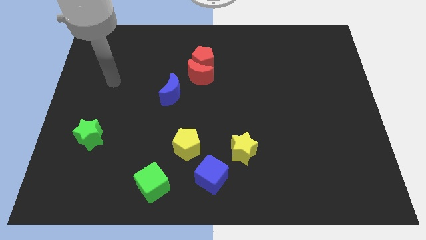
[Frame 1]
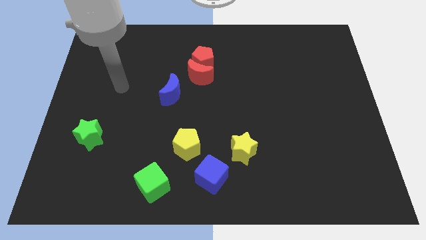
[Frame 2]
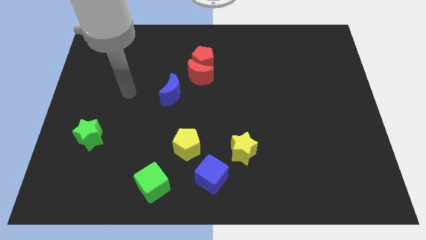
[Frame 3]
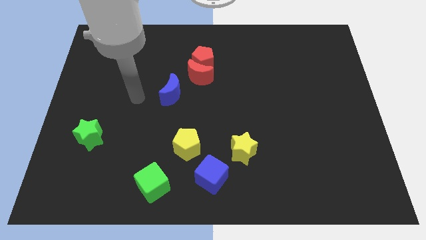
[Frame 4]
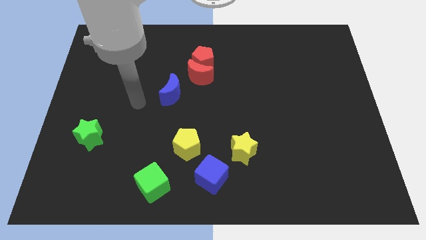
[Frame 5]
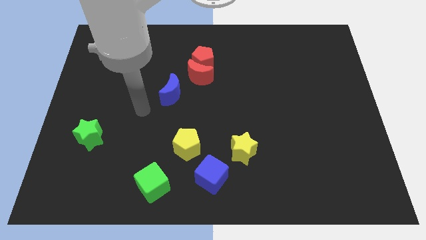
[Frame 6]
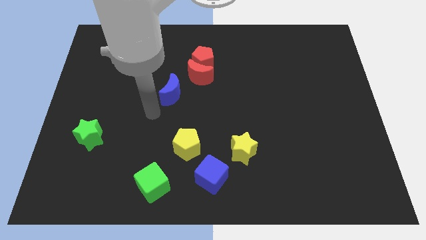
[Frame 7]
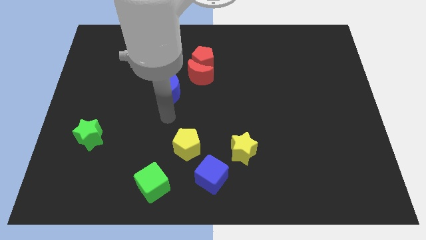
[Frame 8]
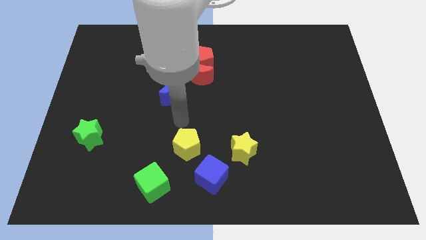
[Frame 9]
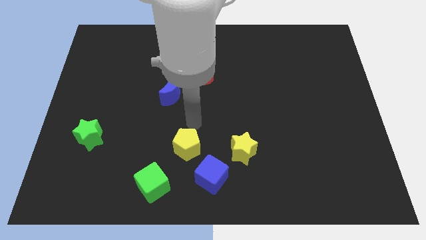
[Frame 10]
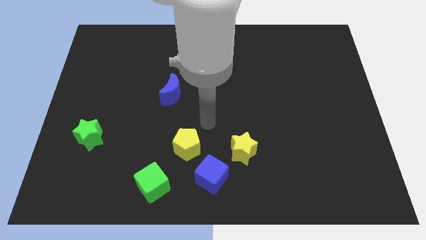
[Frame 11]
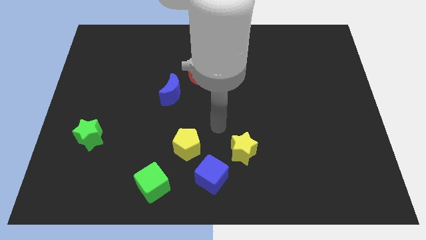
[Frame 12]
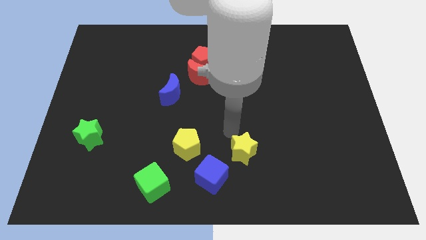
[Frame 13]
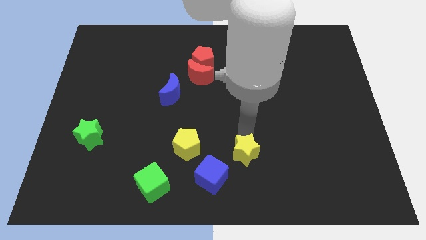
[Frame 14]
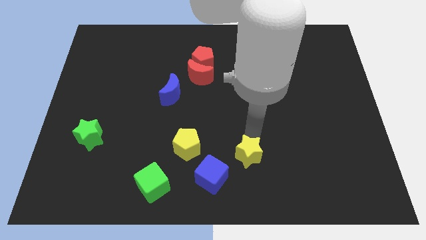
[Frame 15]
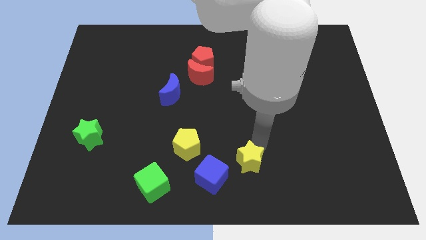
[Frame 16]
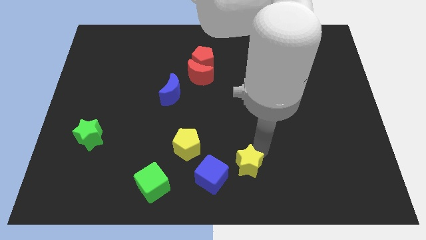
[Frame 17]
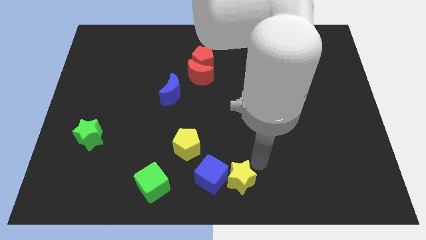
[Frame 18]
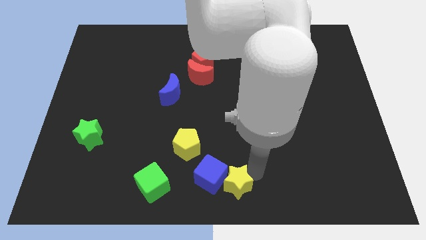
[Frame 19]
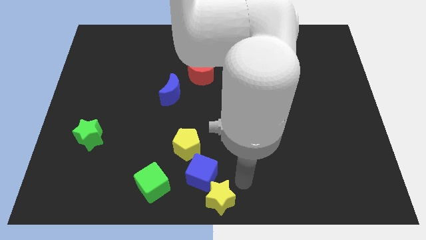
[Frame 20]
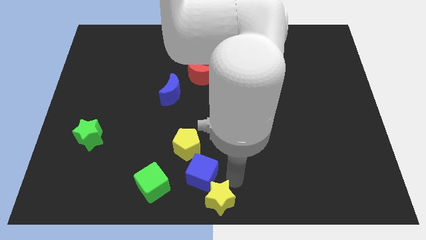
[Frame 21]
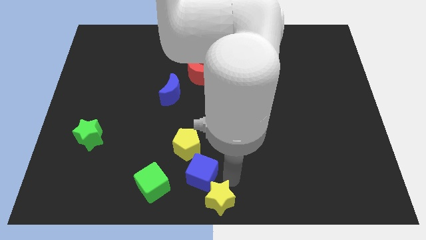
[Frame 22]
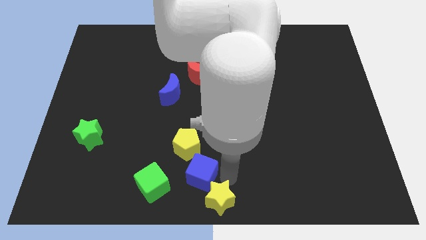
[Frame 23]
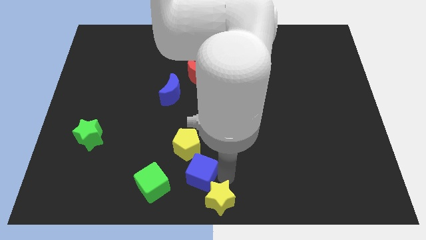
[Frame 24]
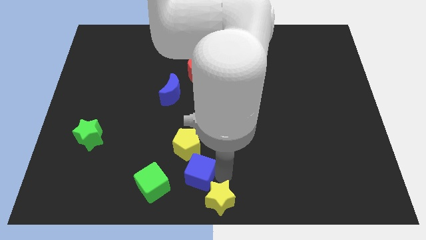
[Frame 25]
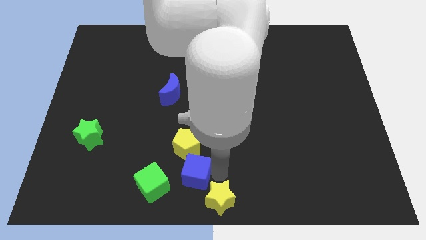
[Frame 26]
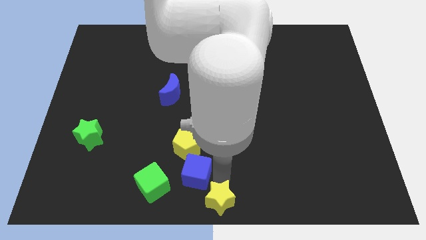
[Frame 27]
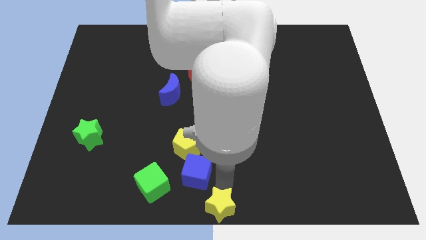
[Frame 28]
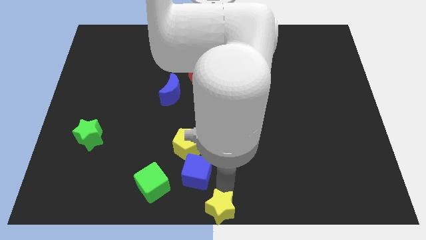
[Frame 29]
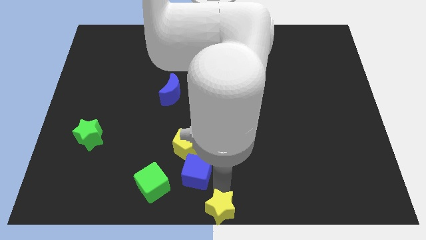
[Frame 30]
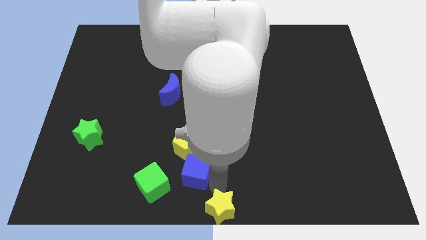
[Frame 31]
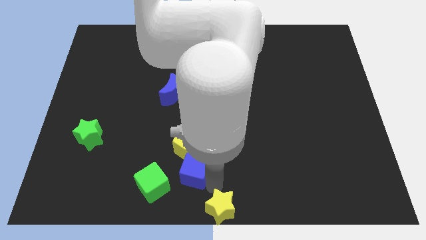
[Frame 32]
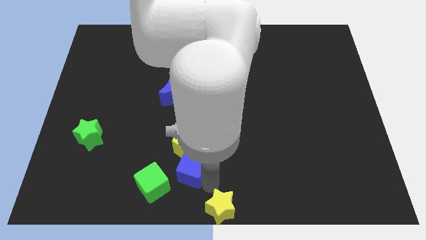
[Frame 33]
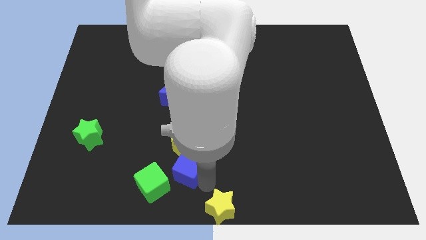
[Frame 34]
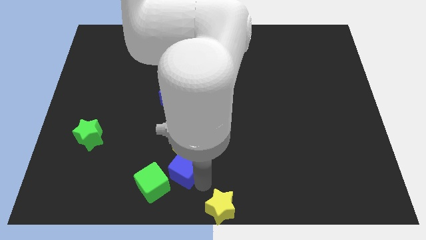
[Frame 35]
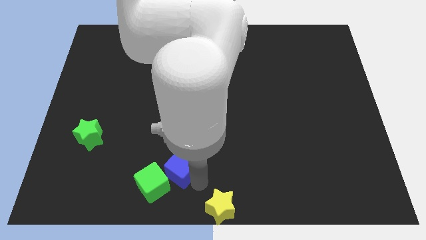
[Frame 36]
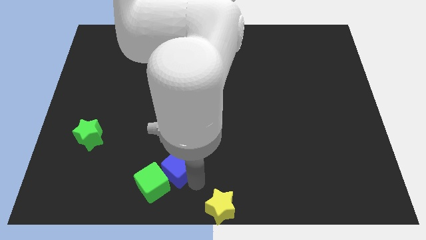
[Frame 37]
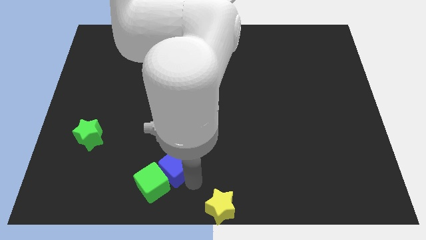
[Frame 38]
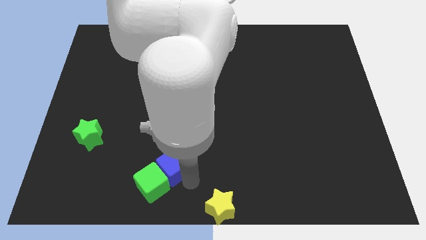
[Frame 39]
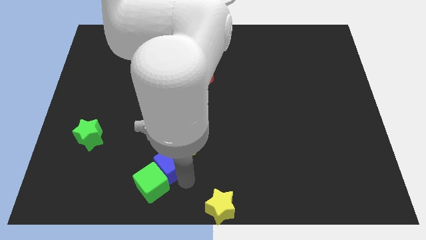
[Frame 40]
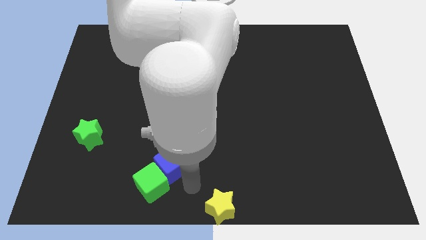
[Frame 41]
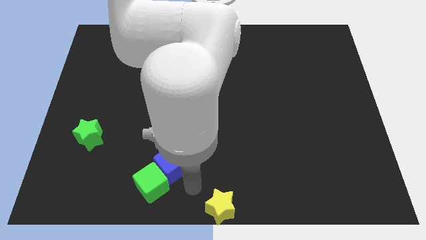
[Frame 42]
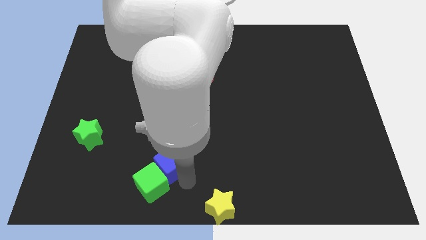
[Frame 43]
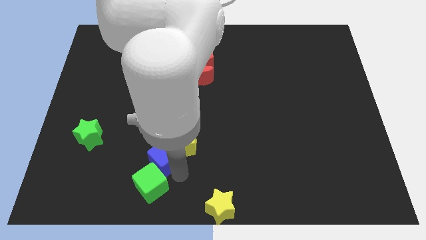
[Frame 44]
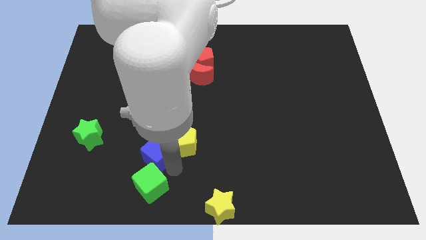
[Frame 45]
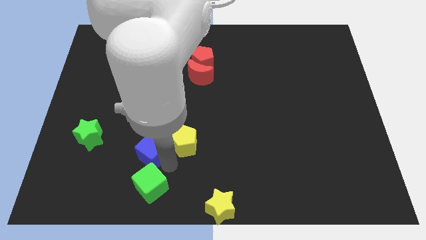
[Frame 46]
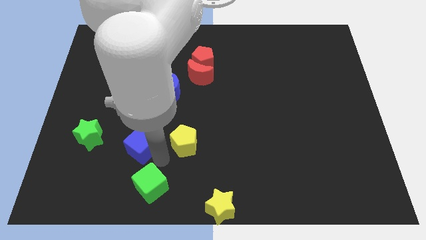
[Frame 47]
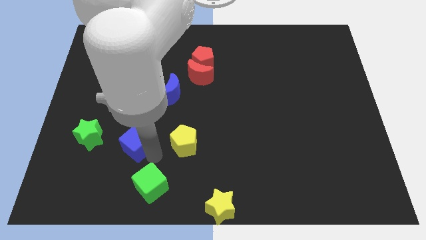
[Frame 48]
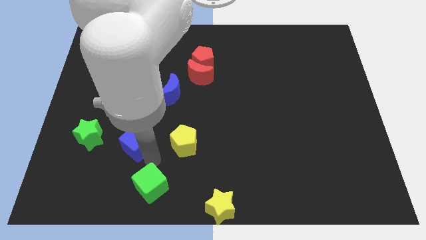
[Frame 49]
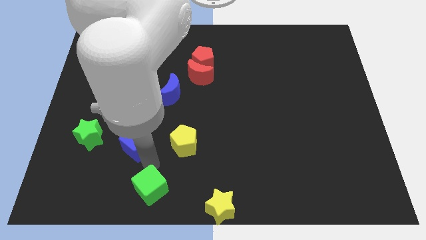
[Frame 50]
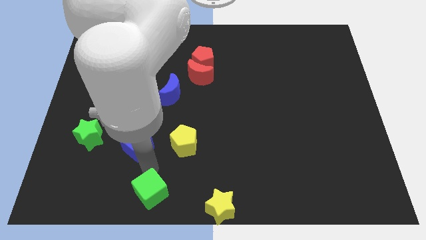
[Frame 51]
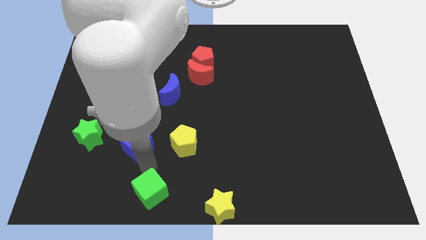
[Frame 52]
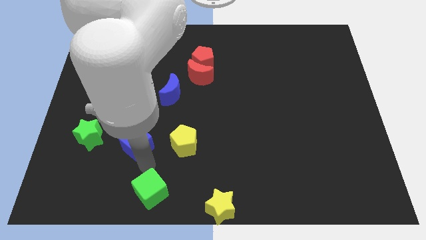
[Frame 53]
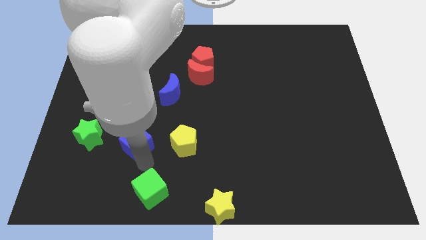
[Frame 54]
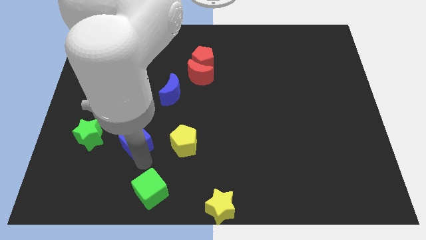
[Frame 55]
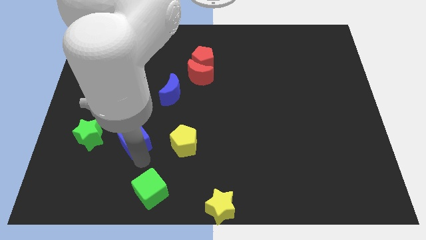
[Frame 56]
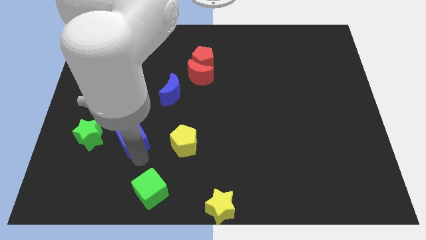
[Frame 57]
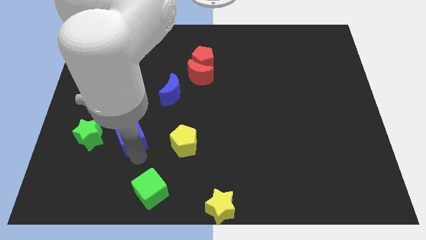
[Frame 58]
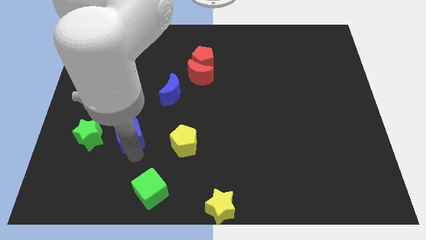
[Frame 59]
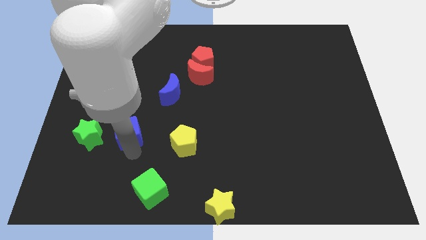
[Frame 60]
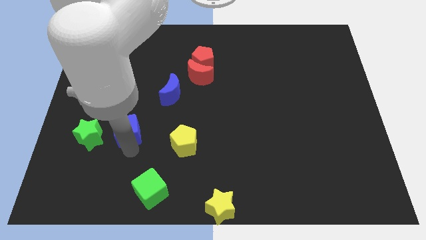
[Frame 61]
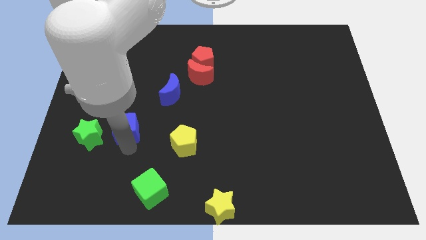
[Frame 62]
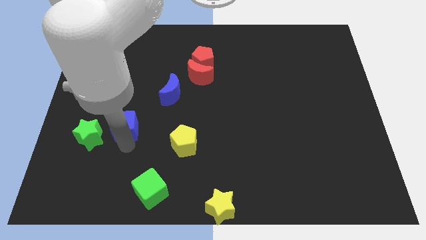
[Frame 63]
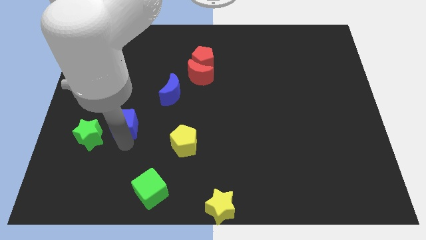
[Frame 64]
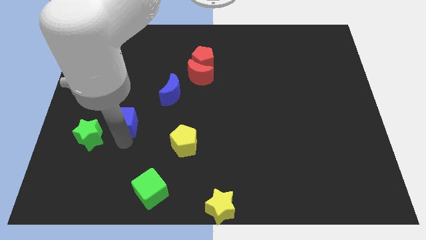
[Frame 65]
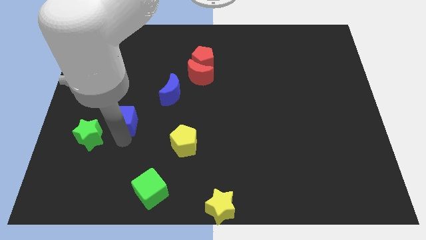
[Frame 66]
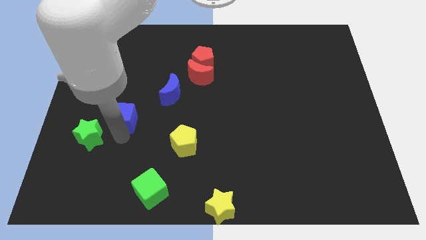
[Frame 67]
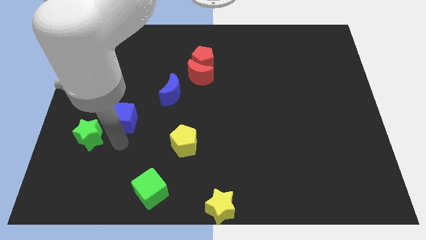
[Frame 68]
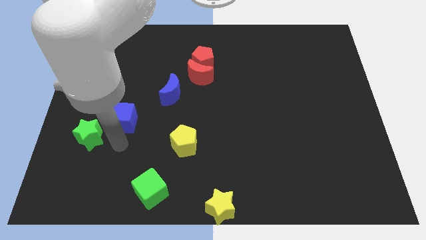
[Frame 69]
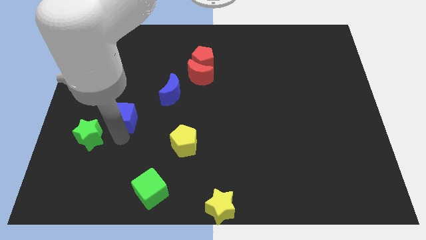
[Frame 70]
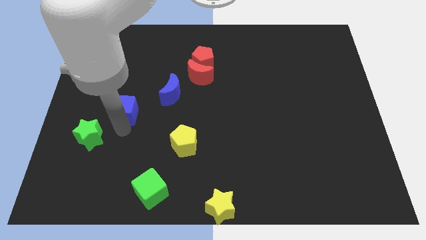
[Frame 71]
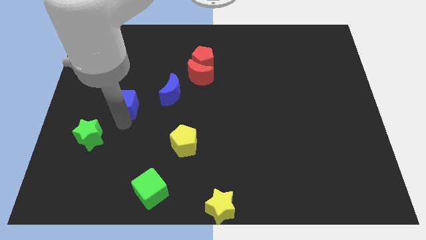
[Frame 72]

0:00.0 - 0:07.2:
push the blue cube to the left of the blue moon
